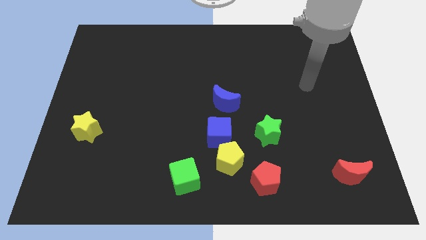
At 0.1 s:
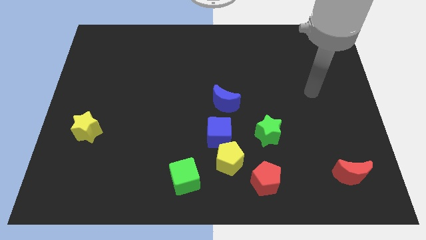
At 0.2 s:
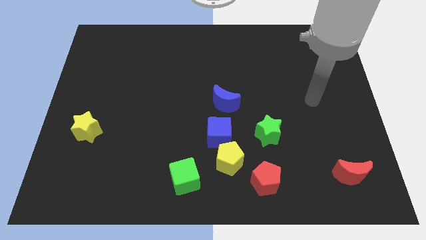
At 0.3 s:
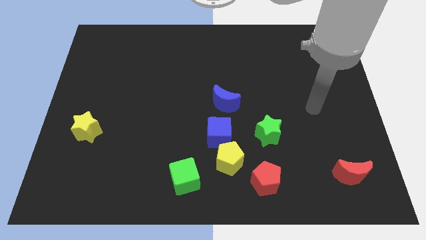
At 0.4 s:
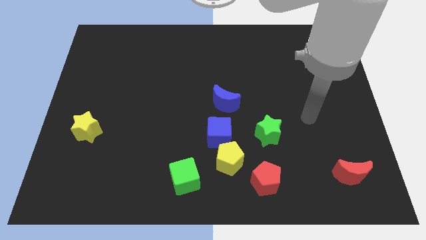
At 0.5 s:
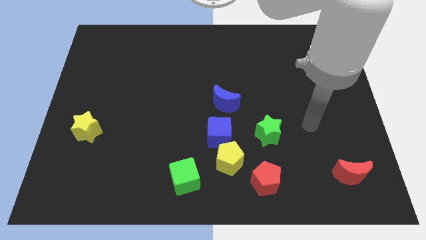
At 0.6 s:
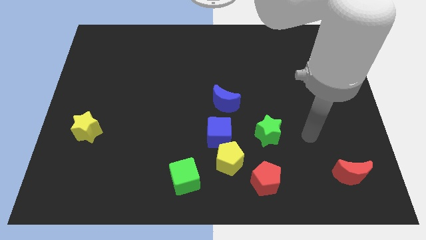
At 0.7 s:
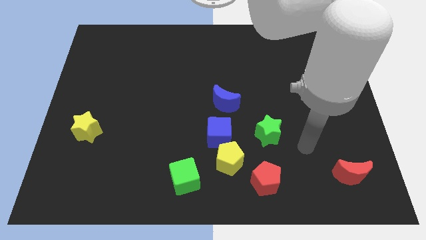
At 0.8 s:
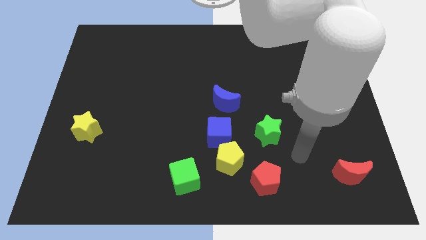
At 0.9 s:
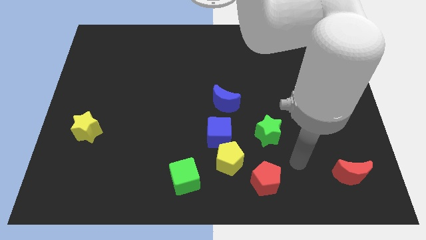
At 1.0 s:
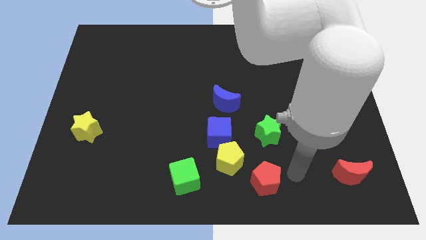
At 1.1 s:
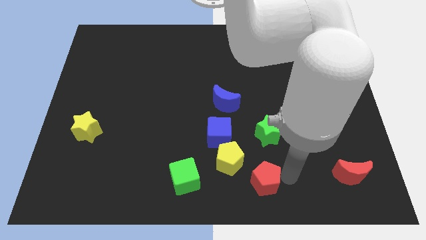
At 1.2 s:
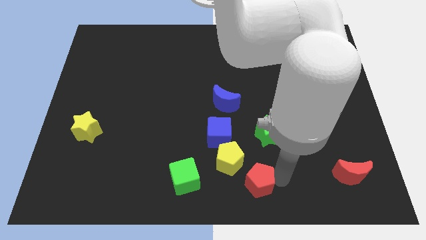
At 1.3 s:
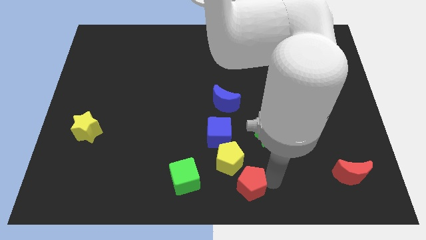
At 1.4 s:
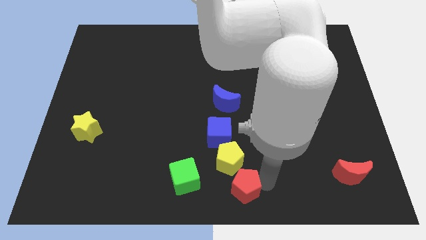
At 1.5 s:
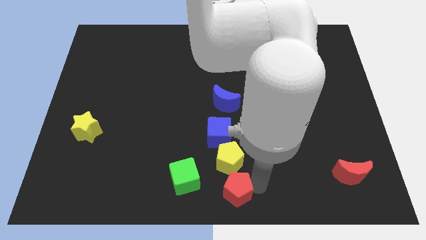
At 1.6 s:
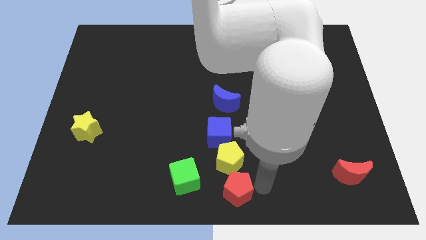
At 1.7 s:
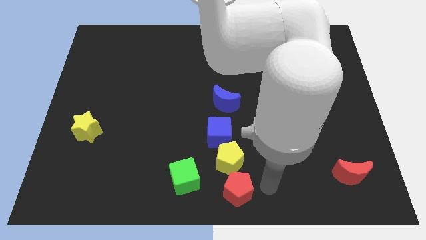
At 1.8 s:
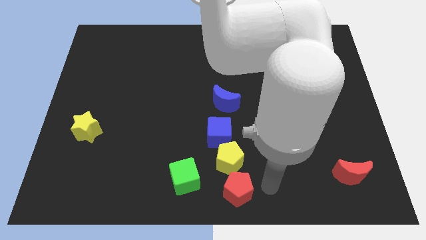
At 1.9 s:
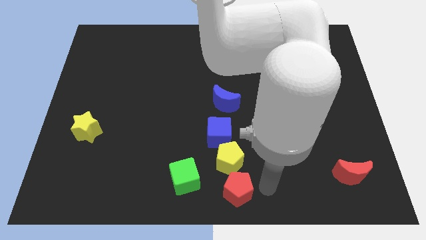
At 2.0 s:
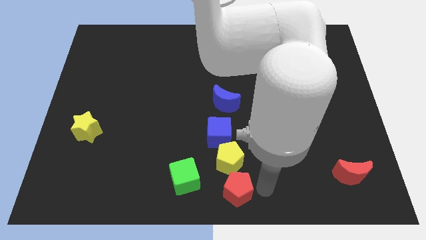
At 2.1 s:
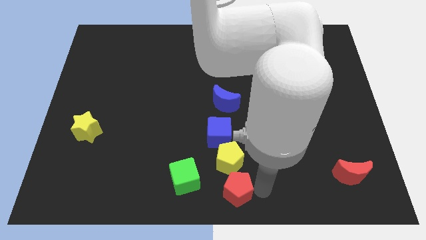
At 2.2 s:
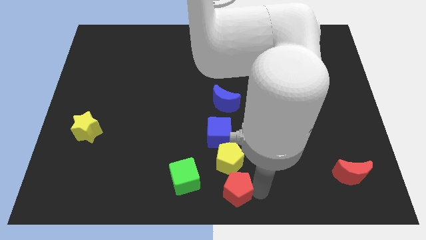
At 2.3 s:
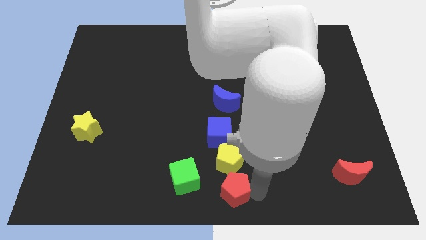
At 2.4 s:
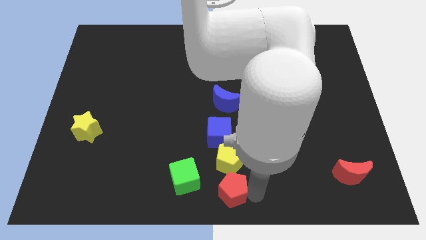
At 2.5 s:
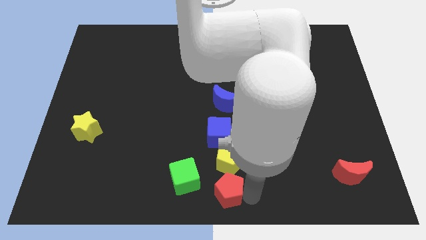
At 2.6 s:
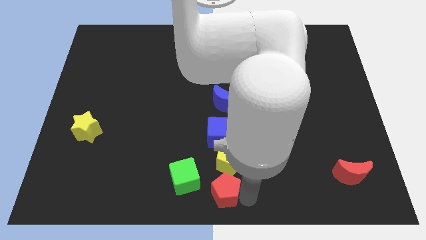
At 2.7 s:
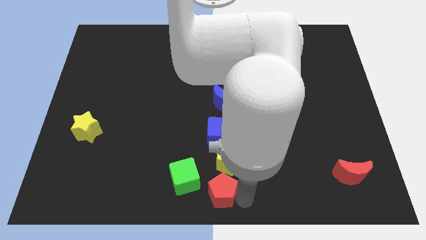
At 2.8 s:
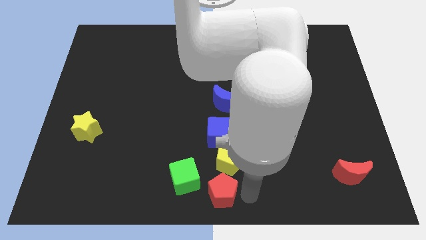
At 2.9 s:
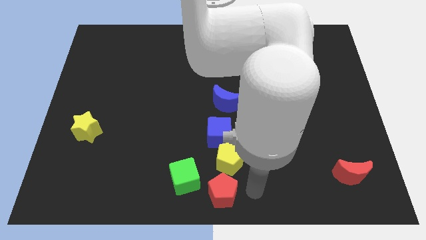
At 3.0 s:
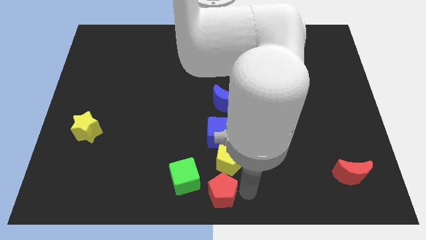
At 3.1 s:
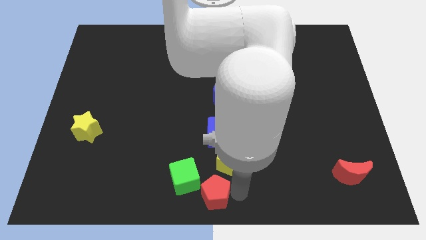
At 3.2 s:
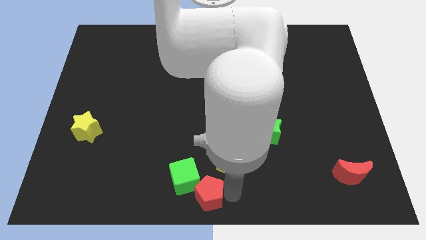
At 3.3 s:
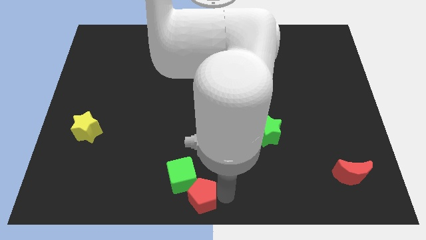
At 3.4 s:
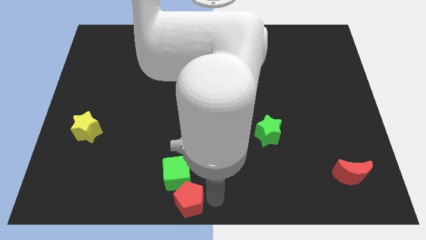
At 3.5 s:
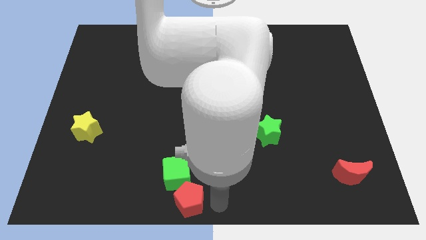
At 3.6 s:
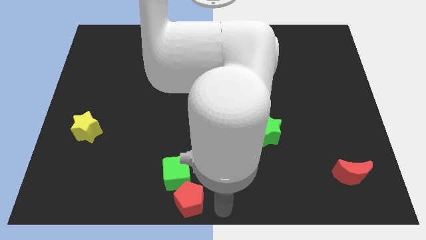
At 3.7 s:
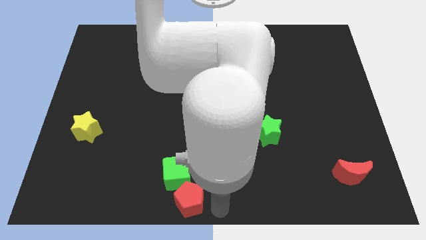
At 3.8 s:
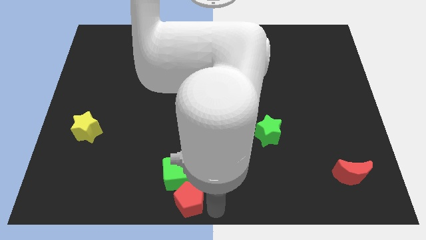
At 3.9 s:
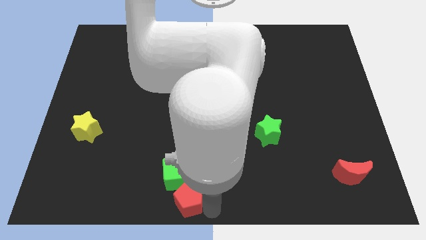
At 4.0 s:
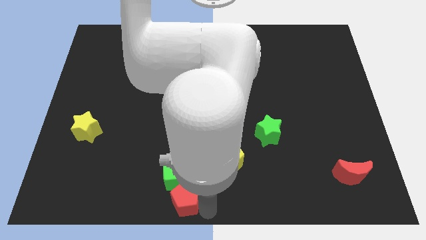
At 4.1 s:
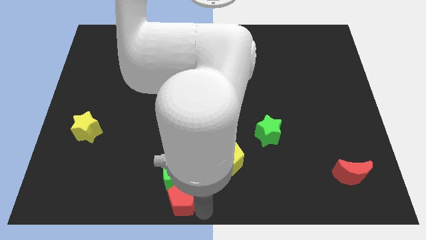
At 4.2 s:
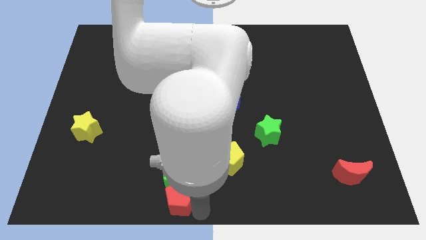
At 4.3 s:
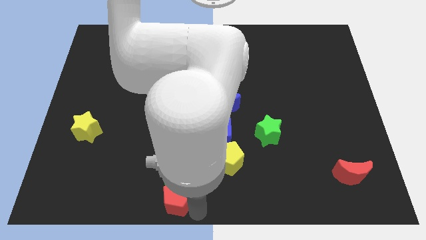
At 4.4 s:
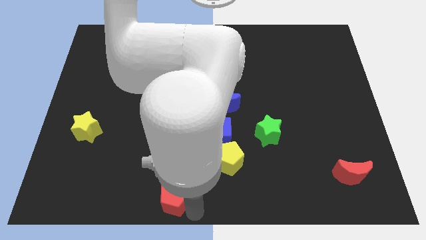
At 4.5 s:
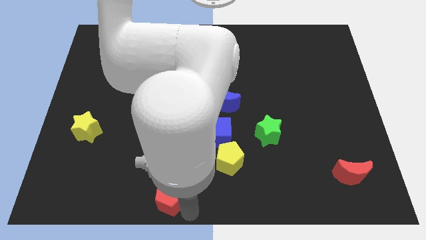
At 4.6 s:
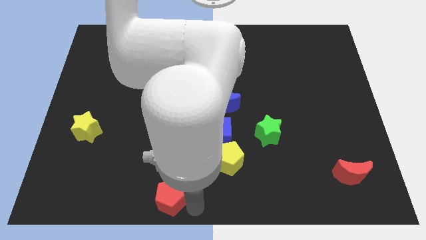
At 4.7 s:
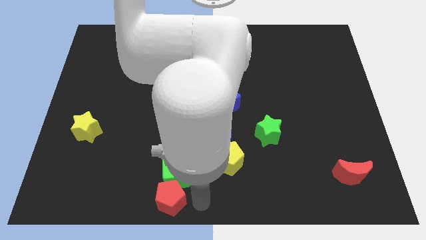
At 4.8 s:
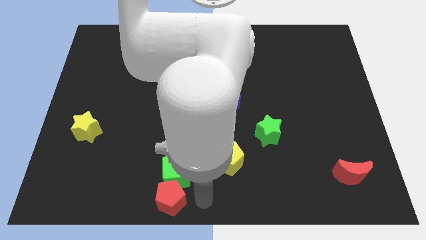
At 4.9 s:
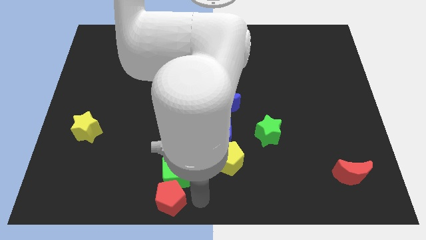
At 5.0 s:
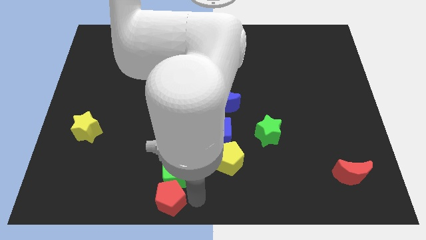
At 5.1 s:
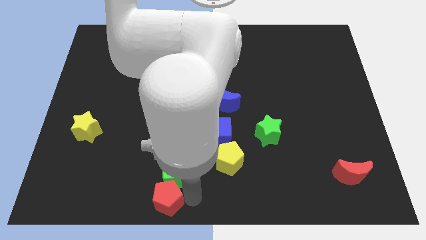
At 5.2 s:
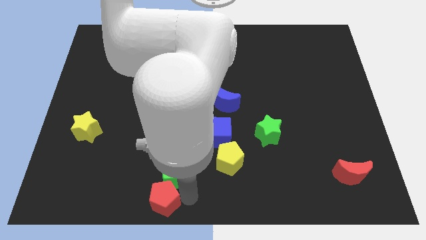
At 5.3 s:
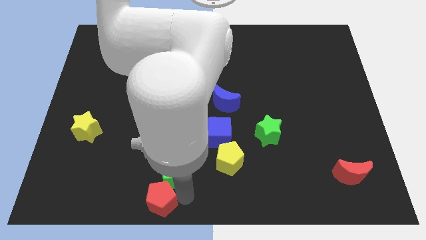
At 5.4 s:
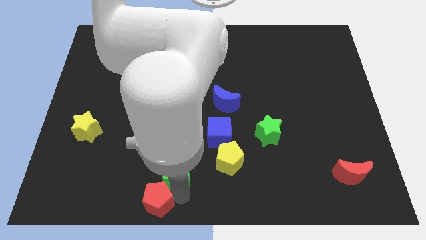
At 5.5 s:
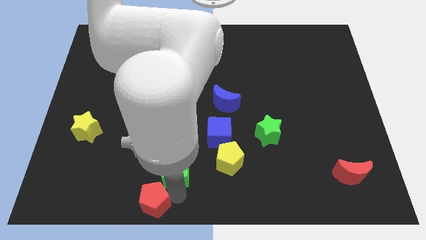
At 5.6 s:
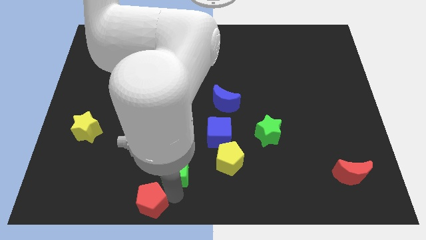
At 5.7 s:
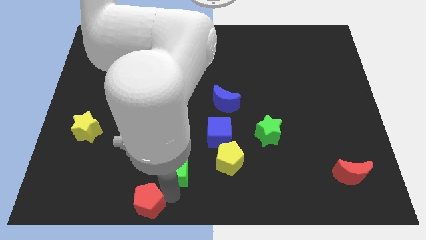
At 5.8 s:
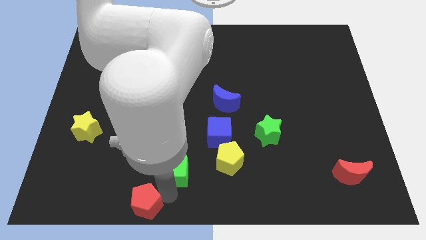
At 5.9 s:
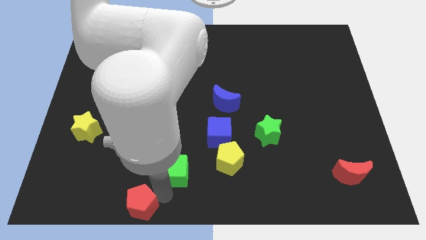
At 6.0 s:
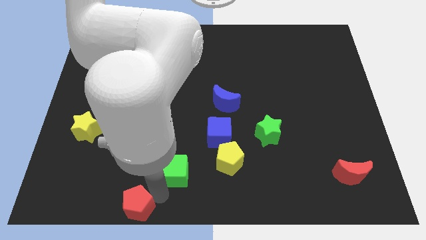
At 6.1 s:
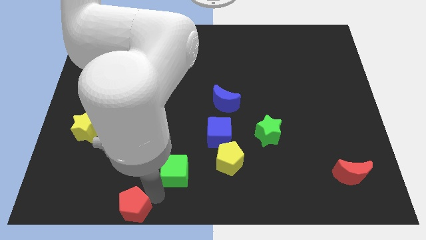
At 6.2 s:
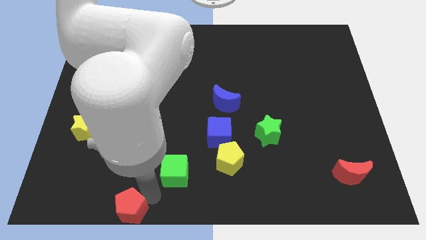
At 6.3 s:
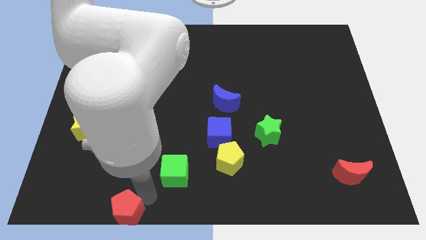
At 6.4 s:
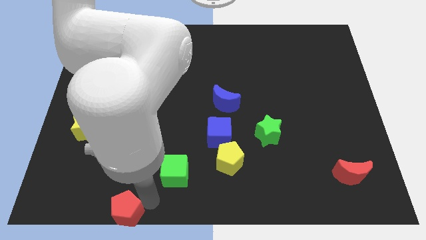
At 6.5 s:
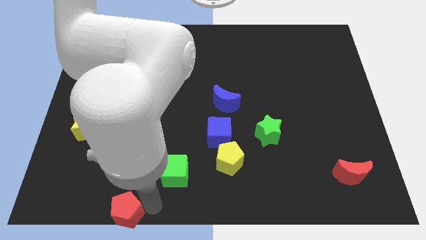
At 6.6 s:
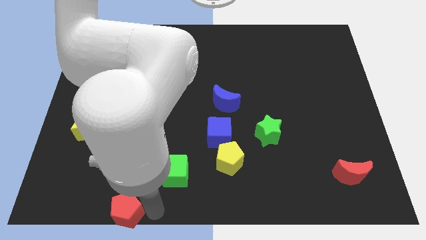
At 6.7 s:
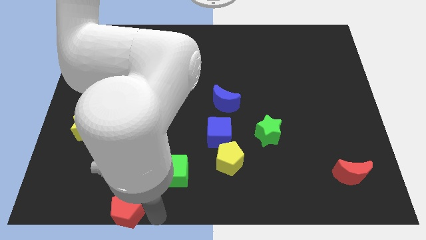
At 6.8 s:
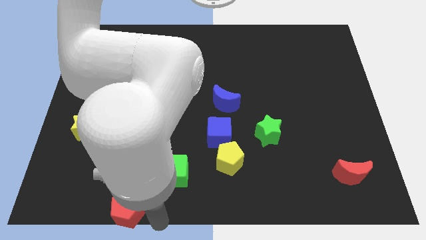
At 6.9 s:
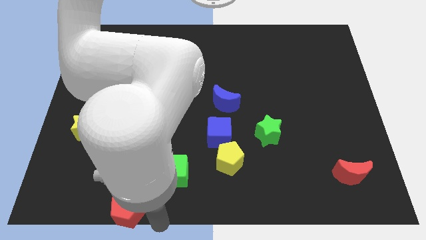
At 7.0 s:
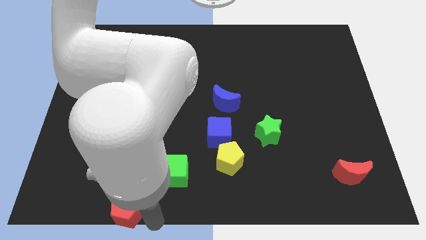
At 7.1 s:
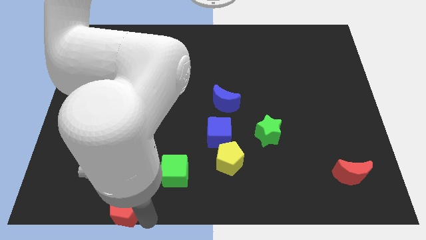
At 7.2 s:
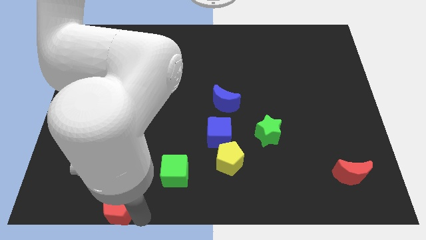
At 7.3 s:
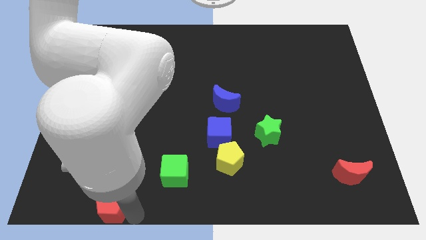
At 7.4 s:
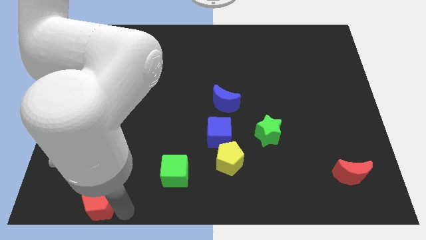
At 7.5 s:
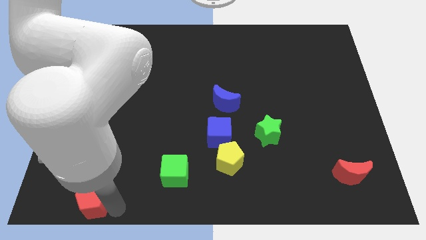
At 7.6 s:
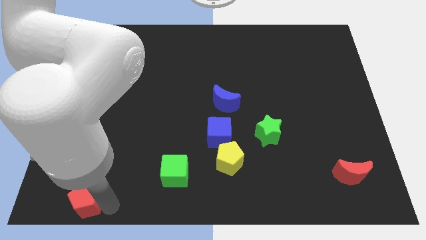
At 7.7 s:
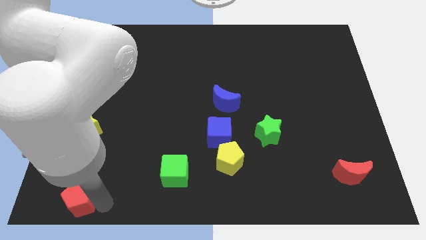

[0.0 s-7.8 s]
slide the red pentagon to the bottom left
